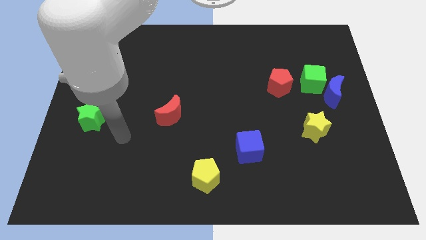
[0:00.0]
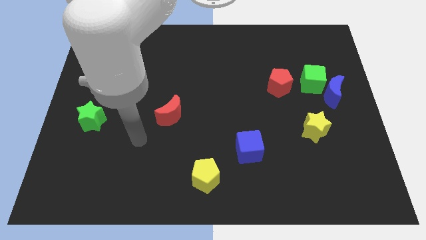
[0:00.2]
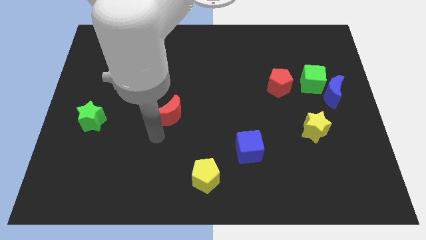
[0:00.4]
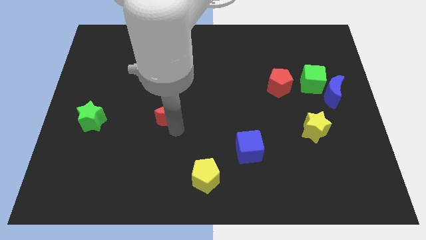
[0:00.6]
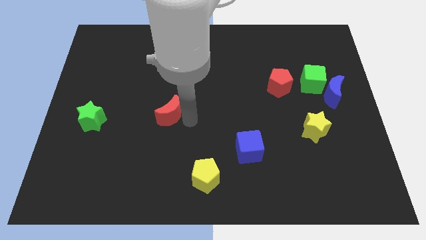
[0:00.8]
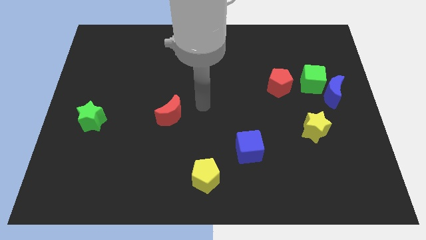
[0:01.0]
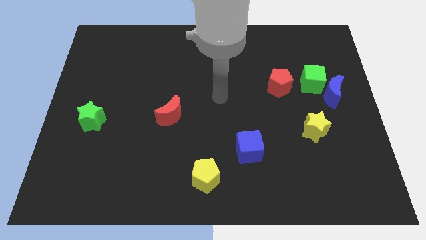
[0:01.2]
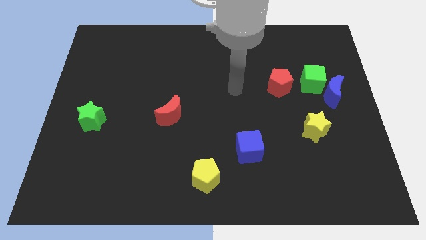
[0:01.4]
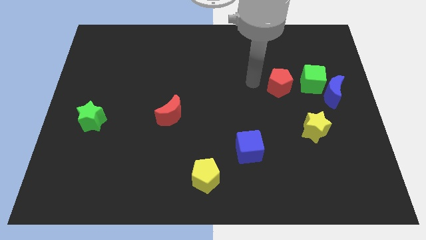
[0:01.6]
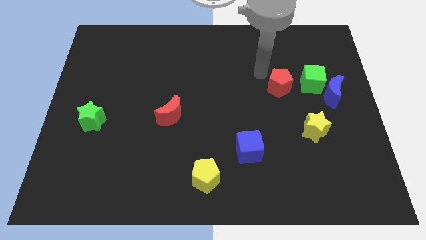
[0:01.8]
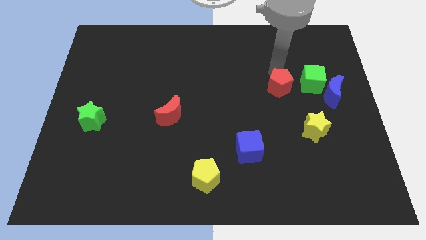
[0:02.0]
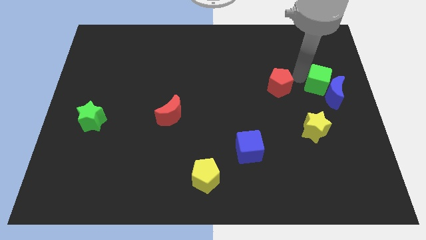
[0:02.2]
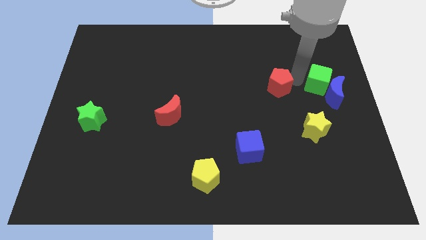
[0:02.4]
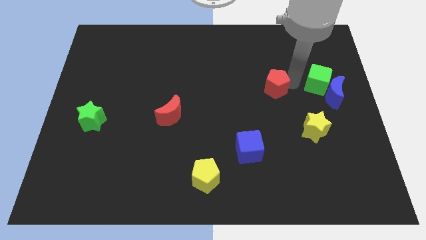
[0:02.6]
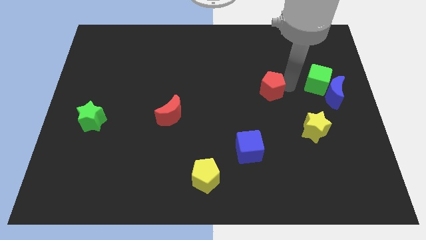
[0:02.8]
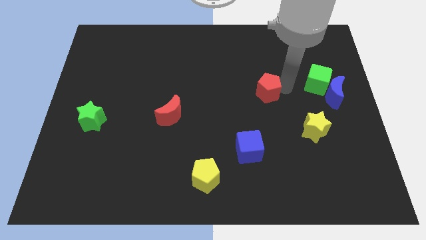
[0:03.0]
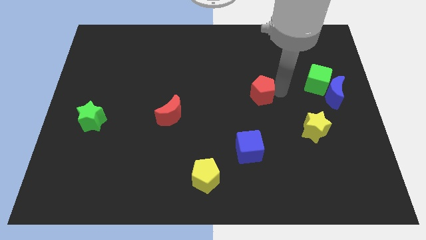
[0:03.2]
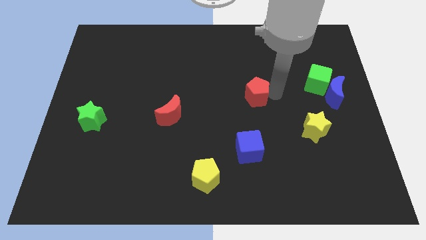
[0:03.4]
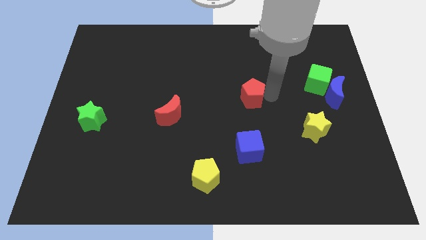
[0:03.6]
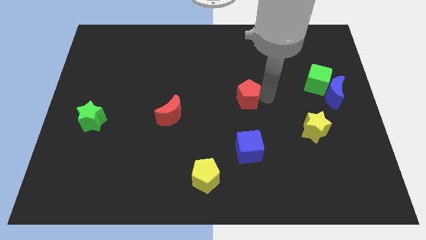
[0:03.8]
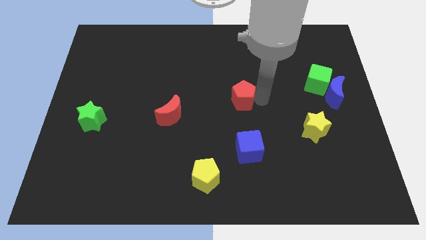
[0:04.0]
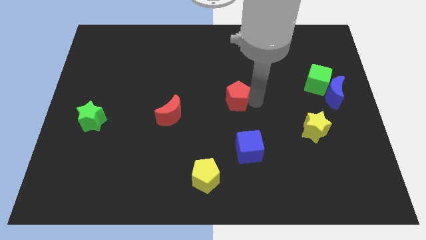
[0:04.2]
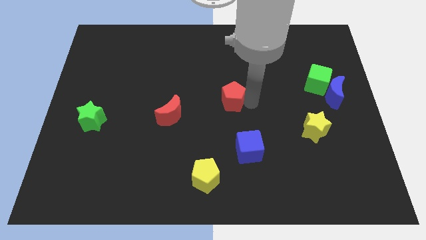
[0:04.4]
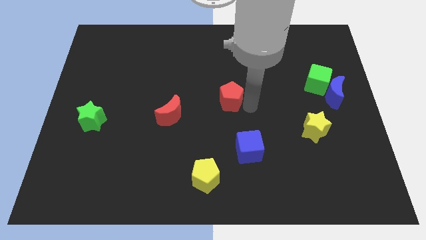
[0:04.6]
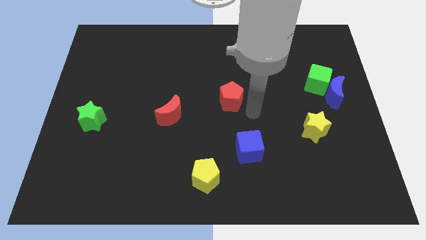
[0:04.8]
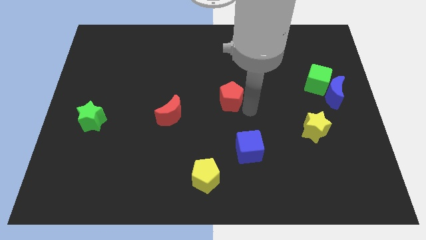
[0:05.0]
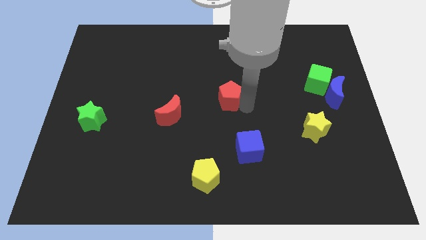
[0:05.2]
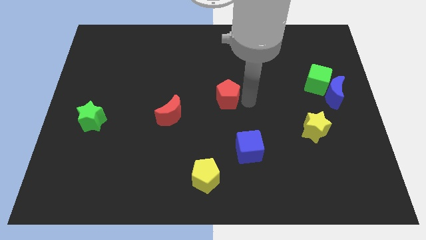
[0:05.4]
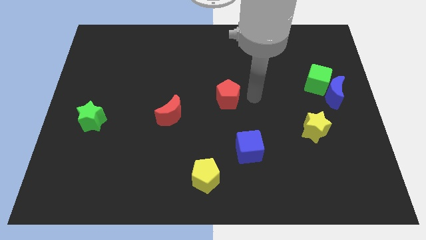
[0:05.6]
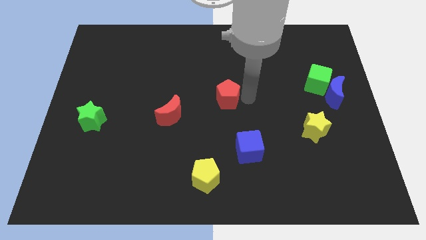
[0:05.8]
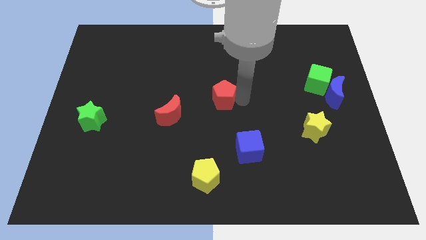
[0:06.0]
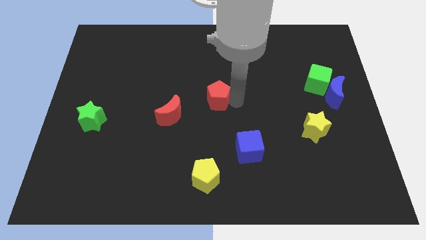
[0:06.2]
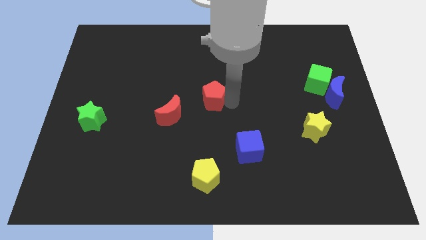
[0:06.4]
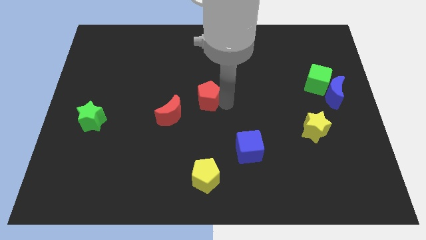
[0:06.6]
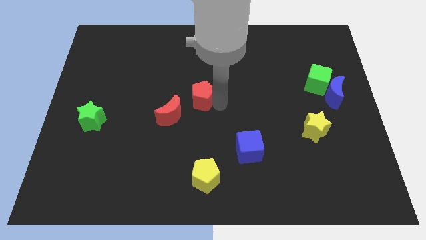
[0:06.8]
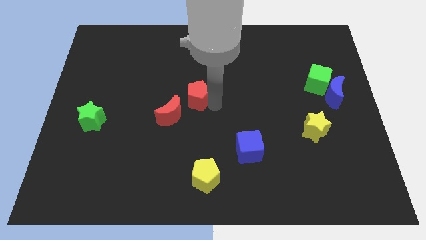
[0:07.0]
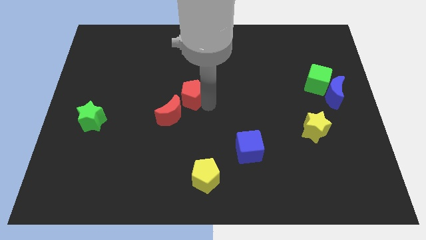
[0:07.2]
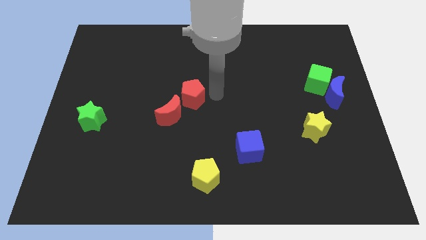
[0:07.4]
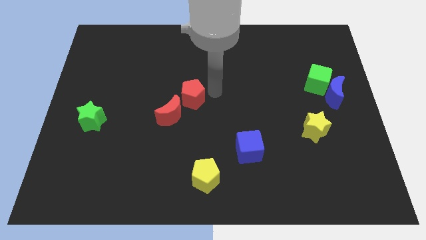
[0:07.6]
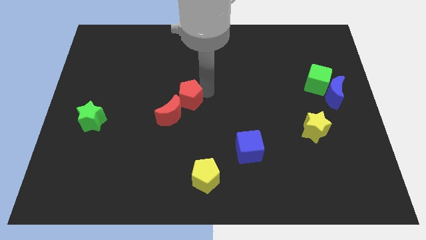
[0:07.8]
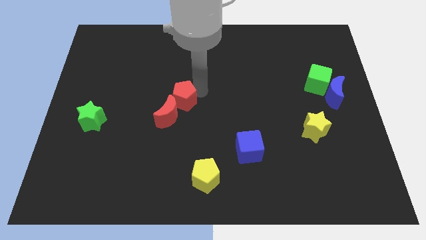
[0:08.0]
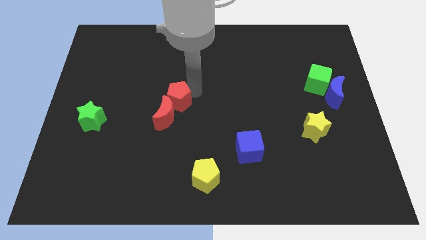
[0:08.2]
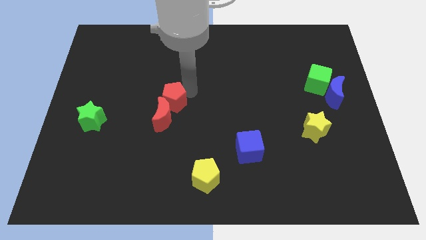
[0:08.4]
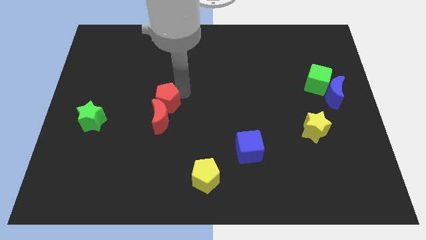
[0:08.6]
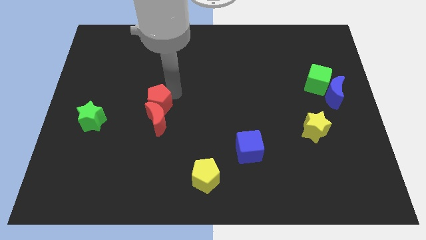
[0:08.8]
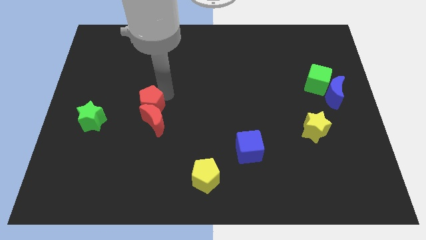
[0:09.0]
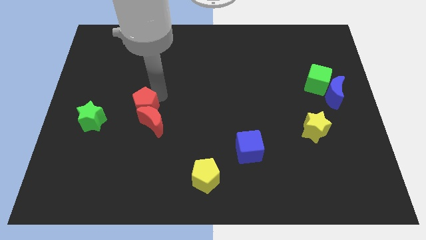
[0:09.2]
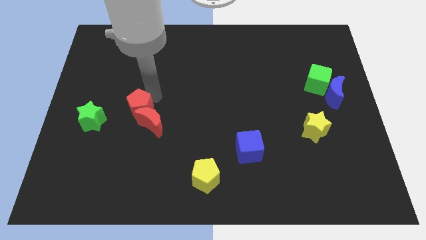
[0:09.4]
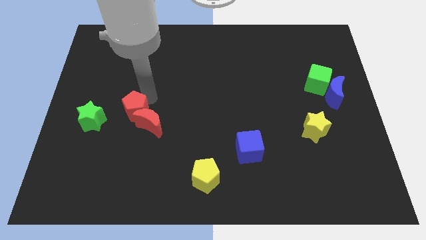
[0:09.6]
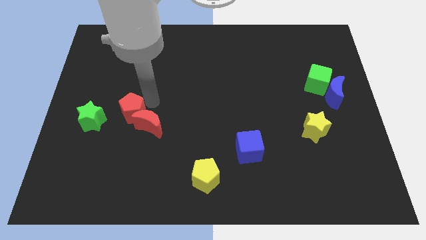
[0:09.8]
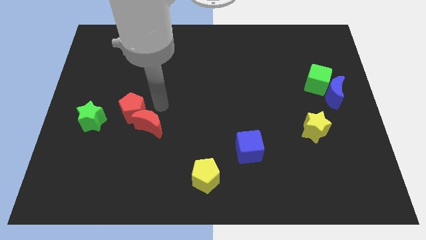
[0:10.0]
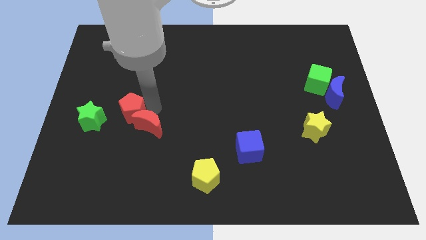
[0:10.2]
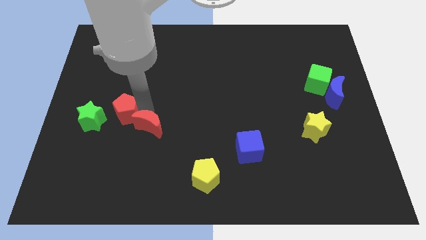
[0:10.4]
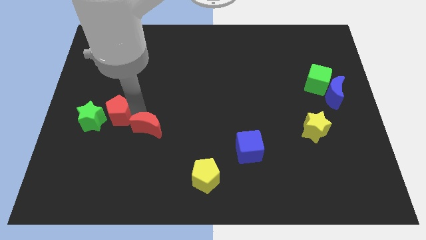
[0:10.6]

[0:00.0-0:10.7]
put the red pentagon next to the green star

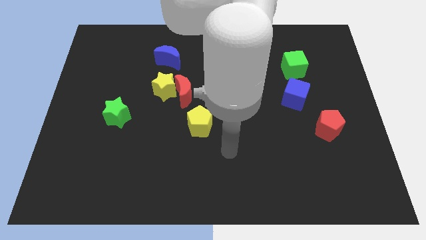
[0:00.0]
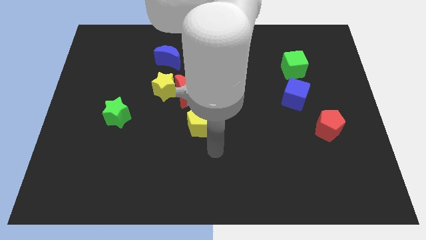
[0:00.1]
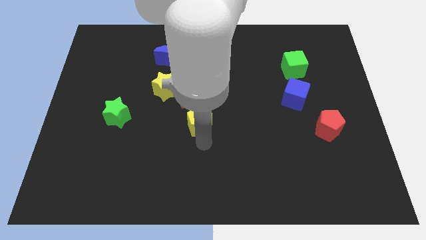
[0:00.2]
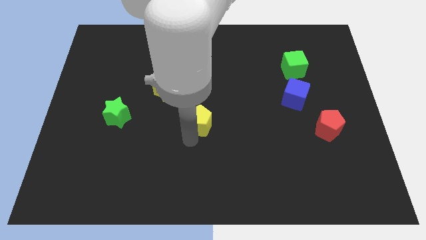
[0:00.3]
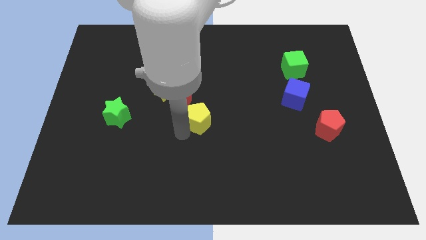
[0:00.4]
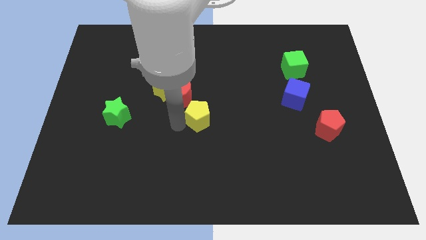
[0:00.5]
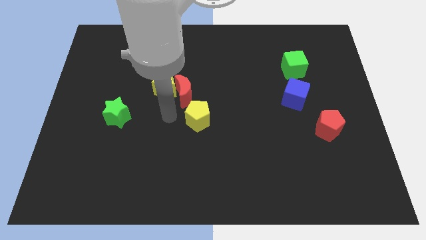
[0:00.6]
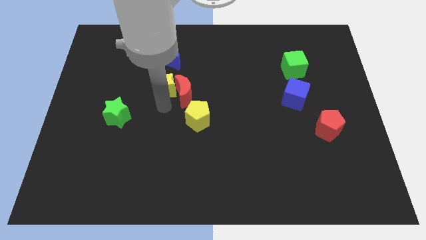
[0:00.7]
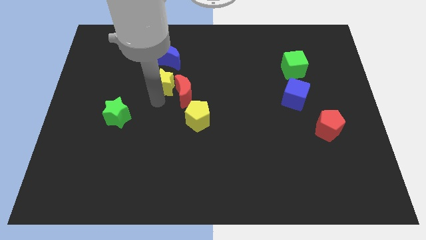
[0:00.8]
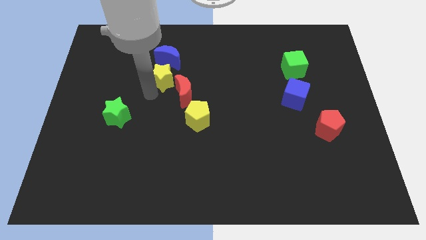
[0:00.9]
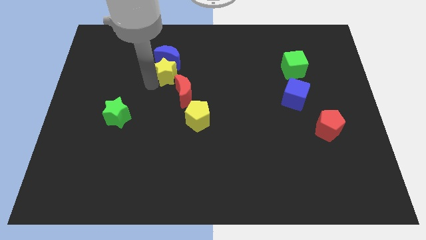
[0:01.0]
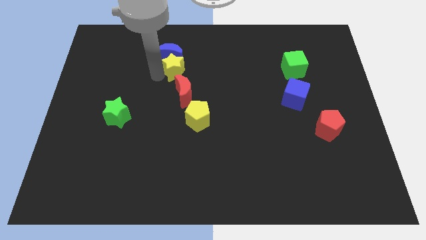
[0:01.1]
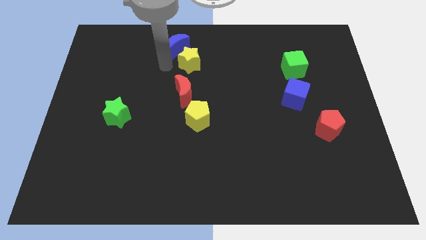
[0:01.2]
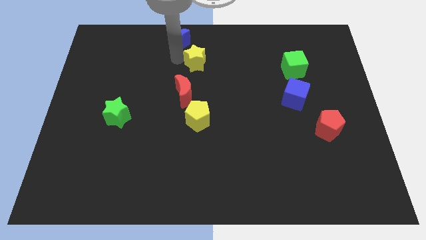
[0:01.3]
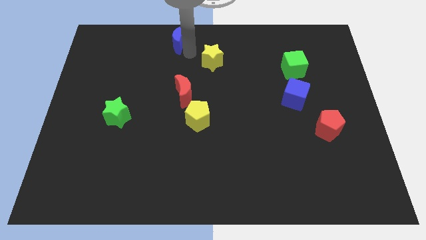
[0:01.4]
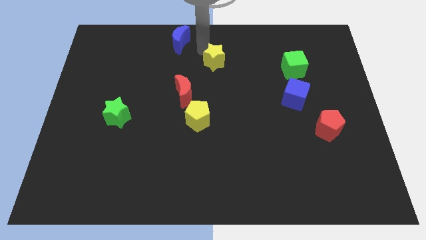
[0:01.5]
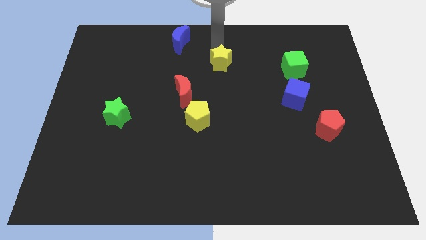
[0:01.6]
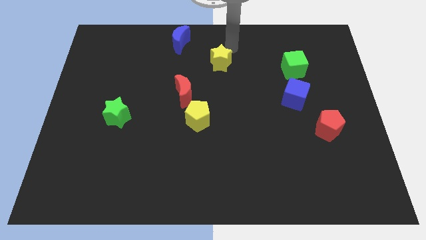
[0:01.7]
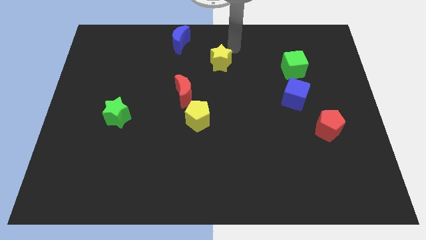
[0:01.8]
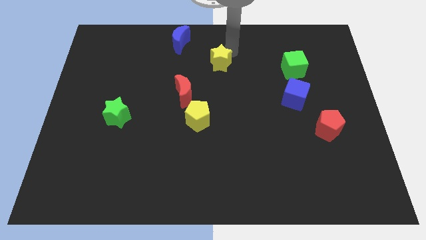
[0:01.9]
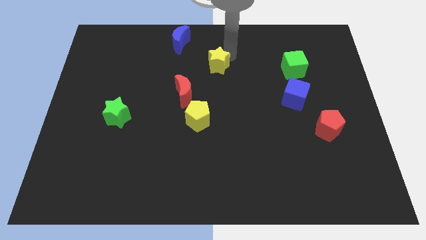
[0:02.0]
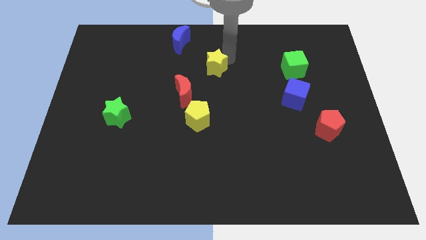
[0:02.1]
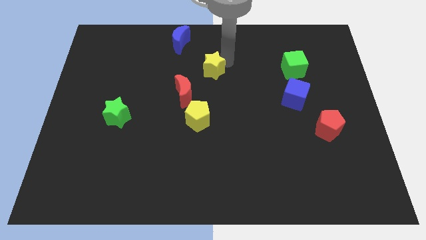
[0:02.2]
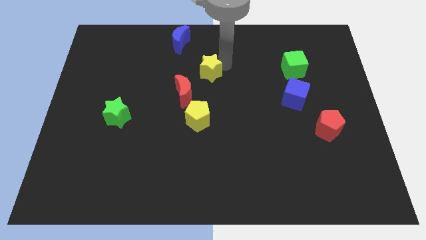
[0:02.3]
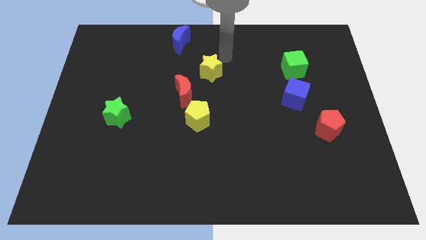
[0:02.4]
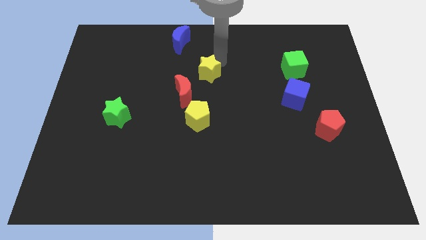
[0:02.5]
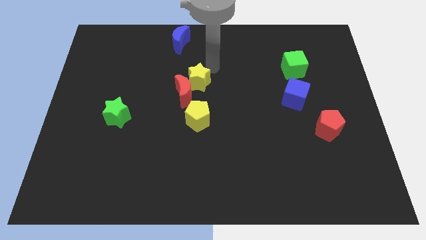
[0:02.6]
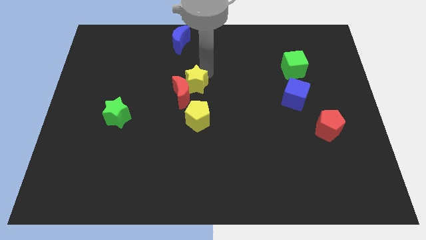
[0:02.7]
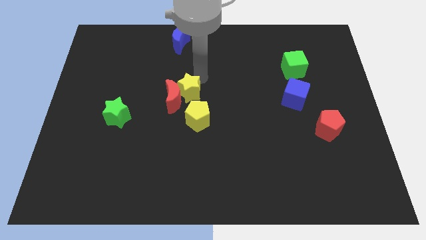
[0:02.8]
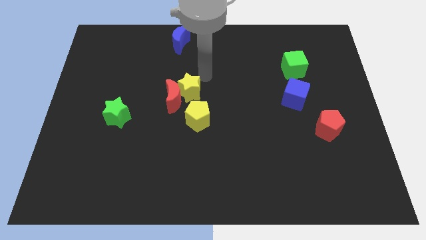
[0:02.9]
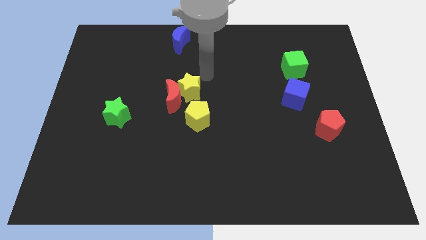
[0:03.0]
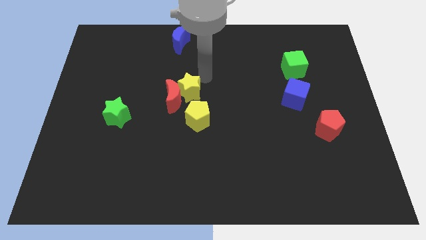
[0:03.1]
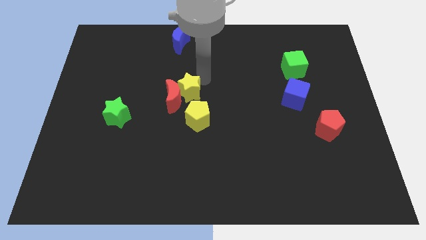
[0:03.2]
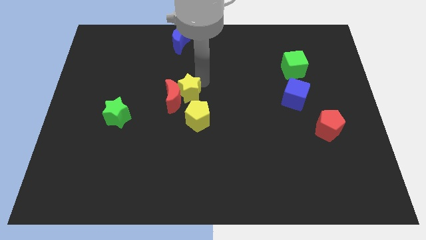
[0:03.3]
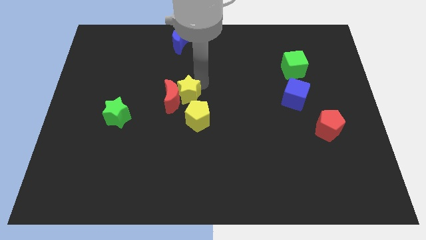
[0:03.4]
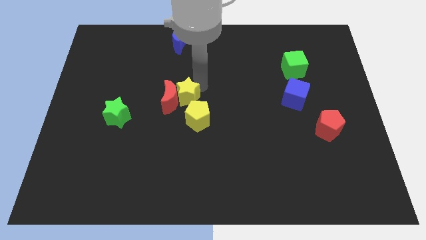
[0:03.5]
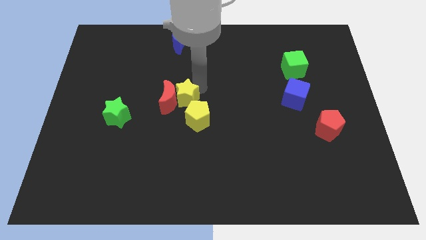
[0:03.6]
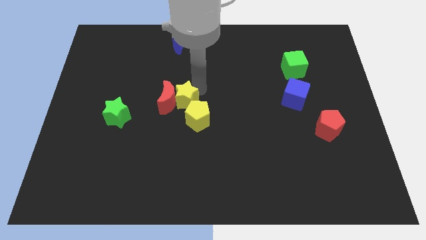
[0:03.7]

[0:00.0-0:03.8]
move the yellow star close to the yellow pentagon
